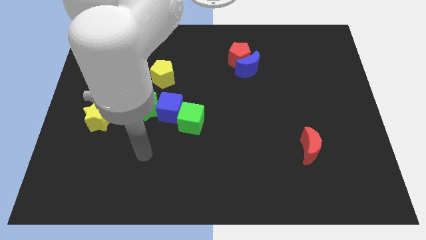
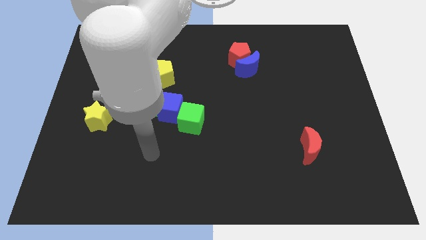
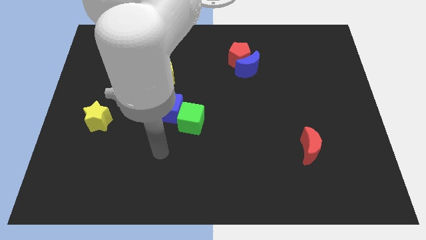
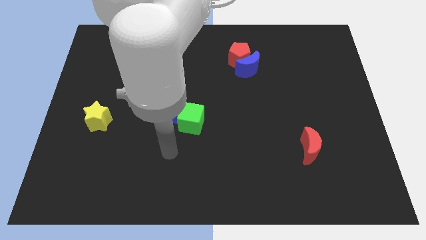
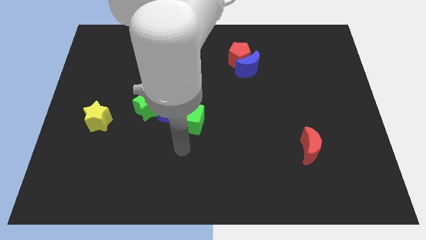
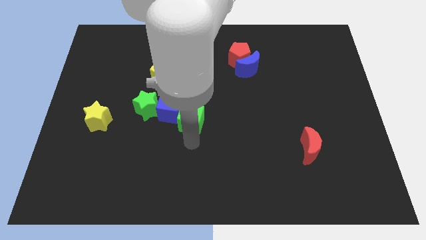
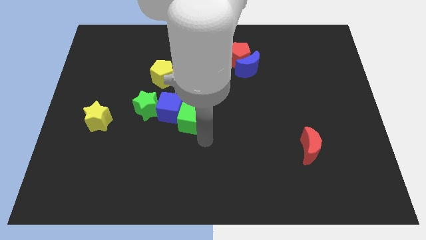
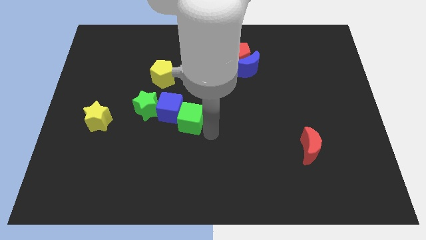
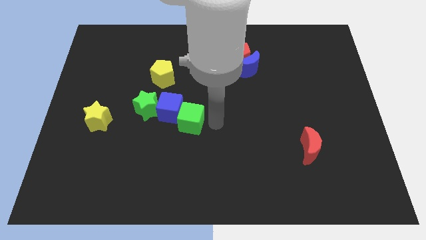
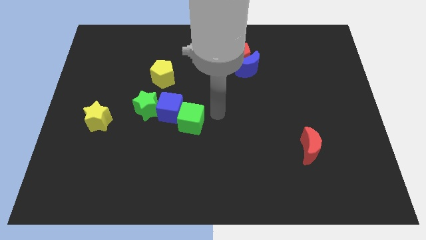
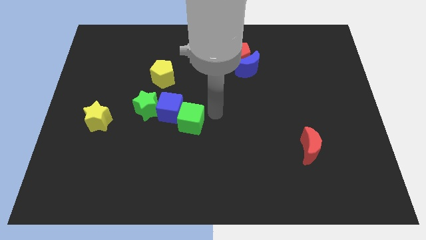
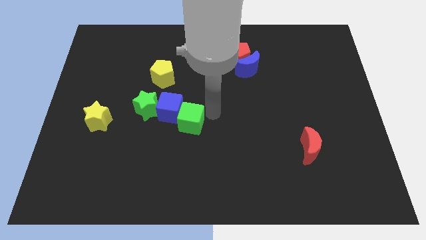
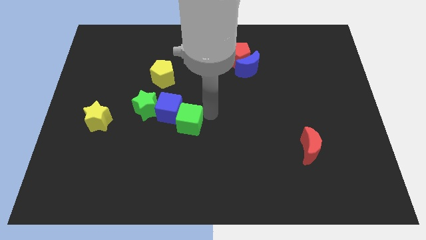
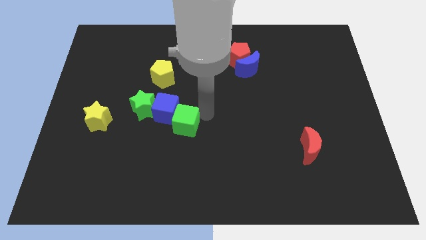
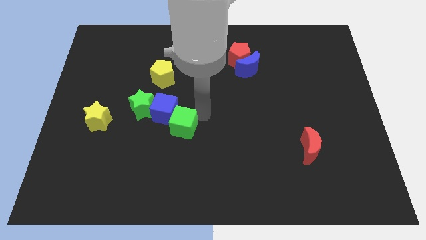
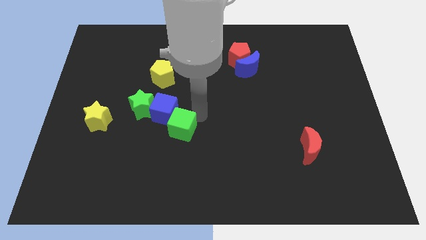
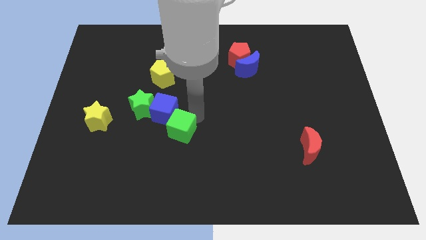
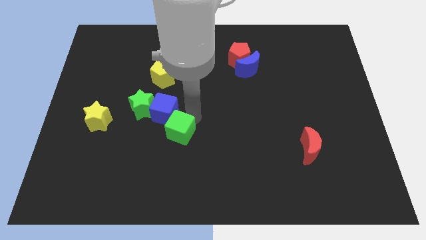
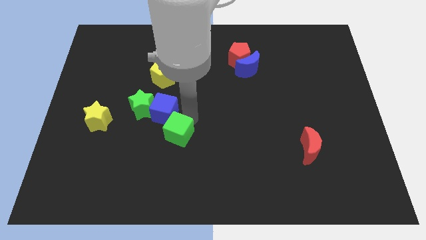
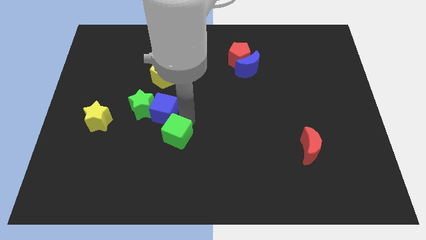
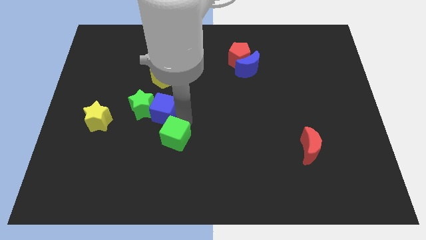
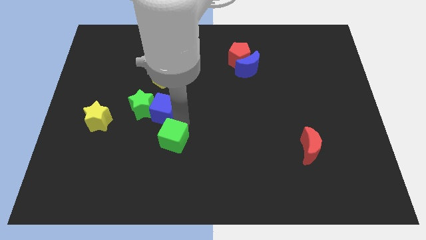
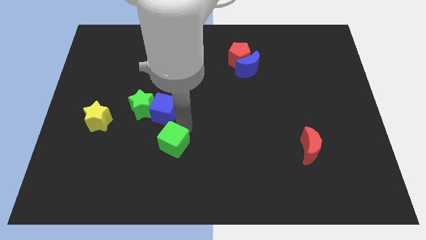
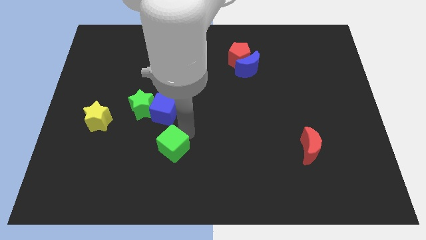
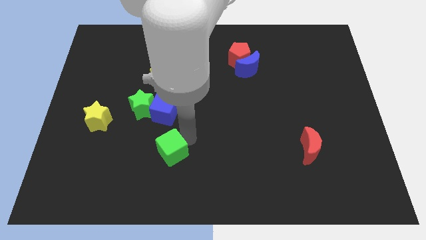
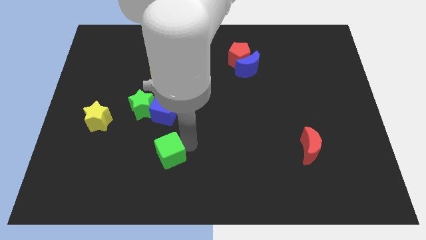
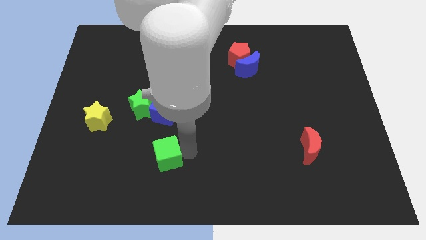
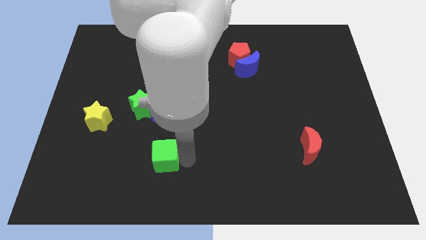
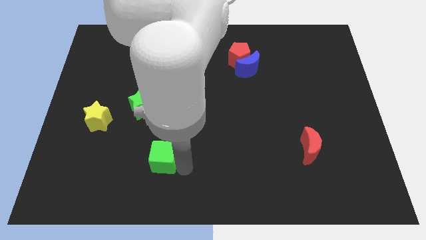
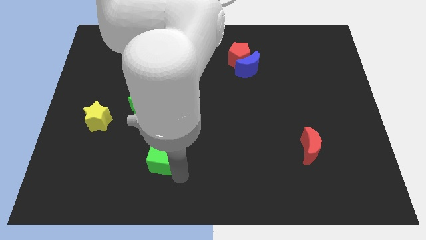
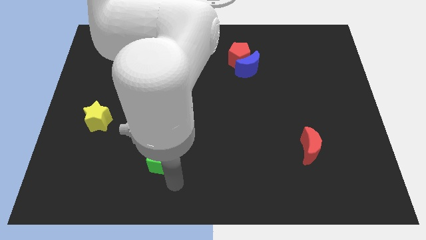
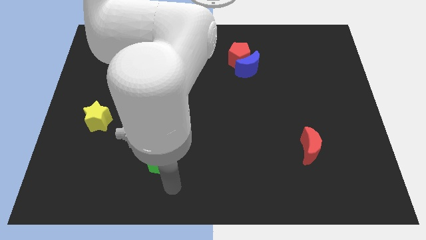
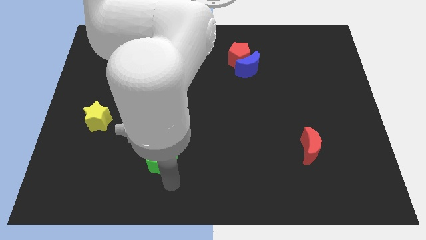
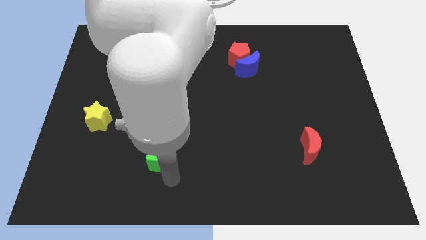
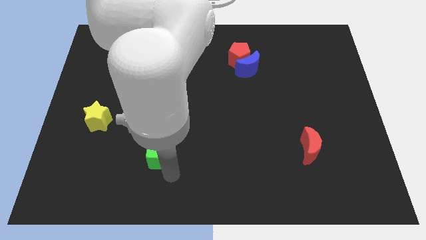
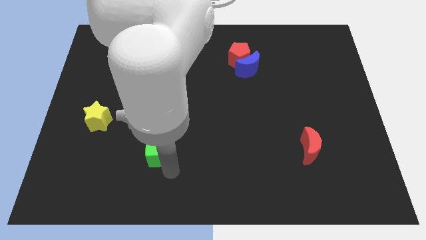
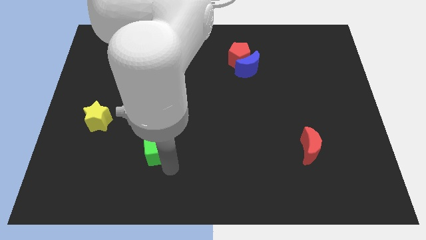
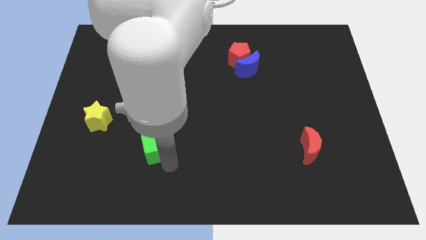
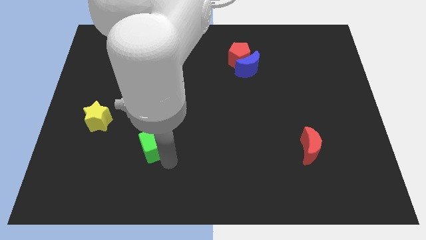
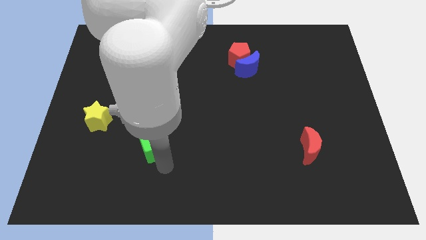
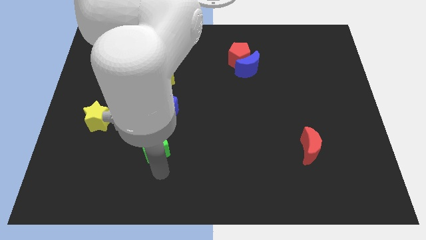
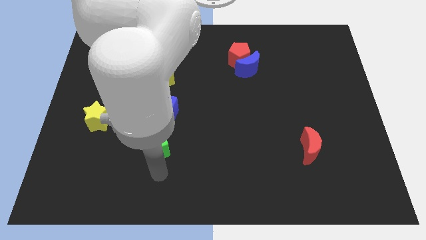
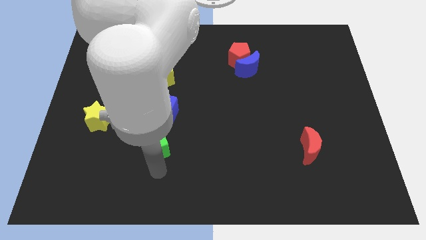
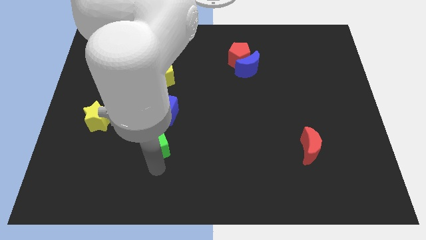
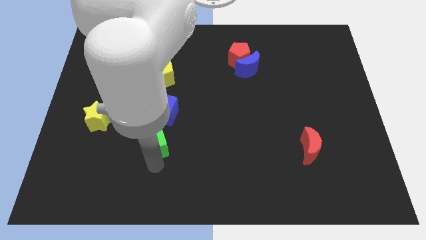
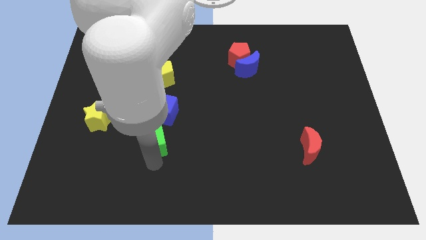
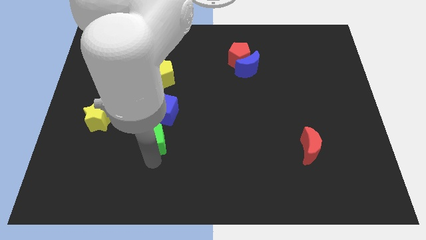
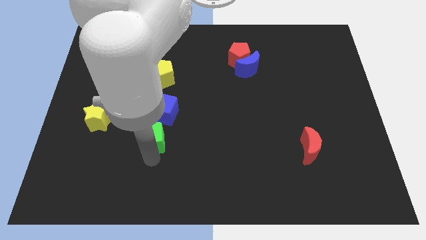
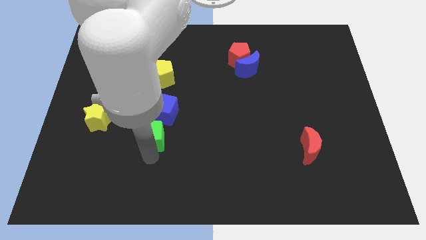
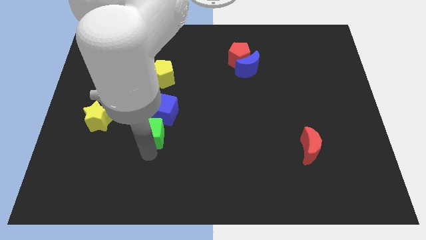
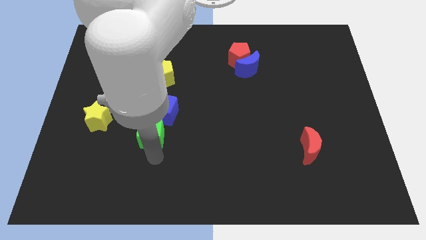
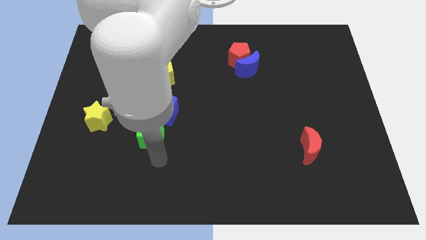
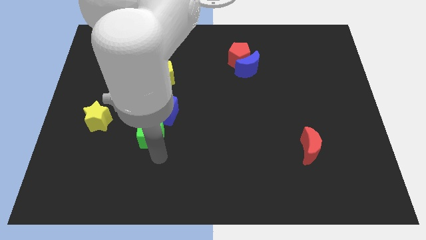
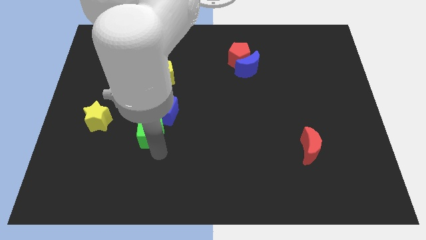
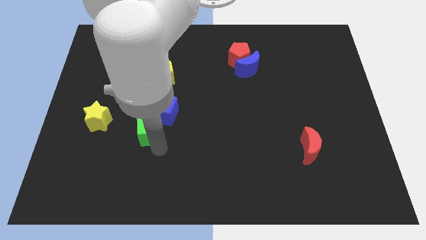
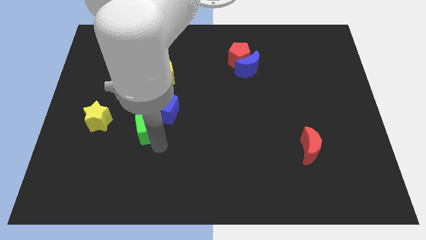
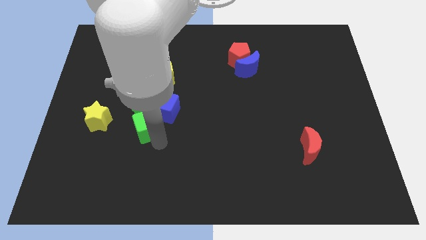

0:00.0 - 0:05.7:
put the green cube close to the green star

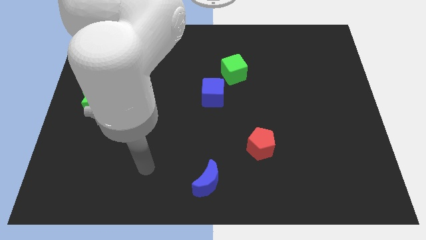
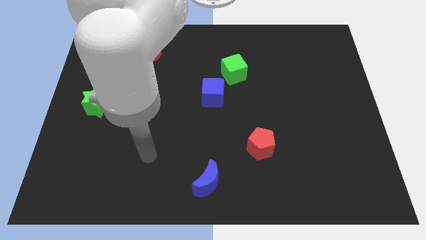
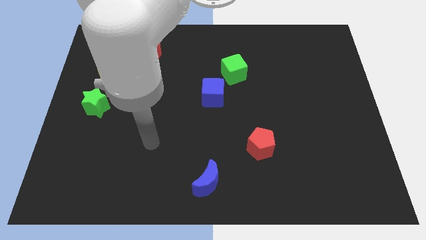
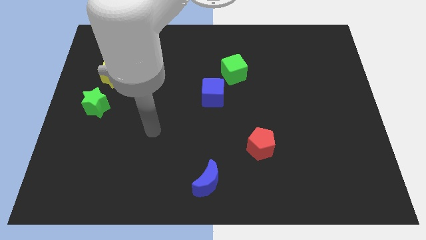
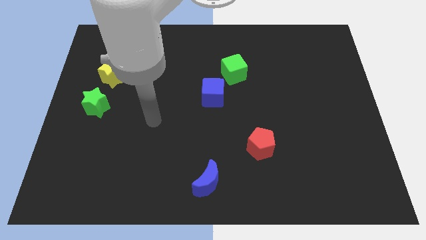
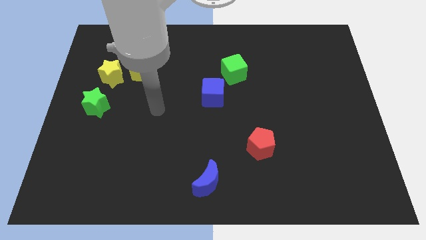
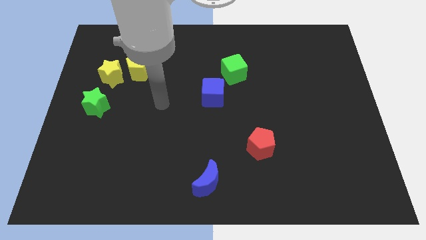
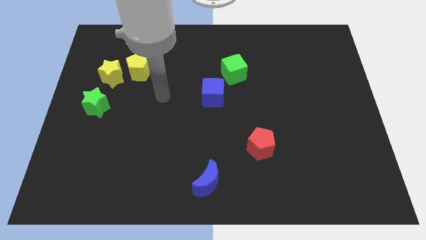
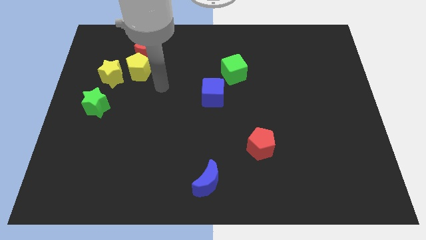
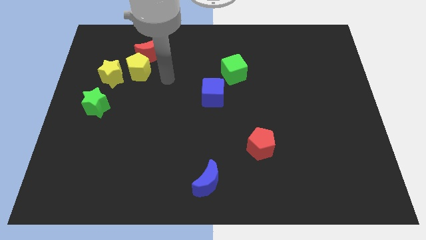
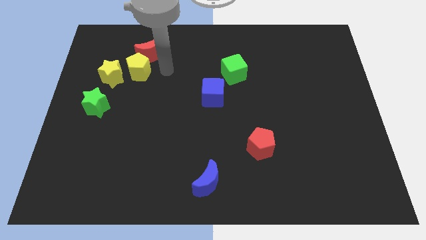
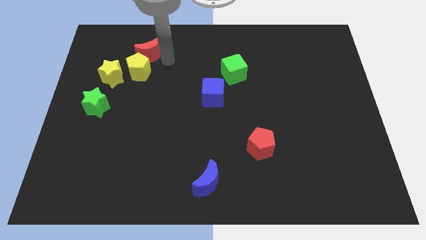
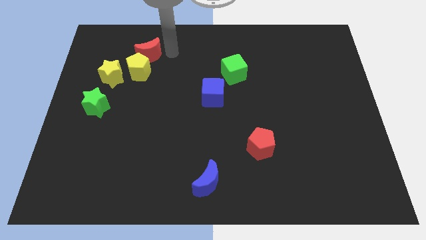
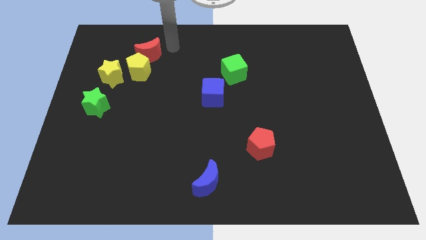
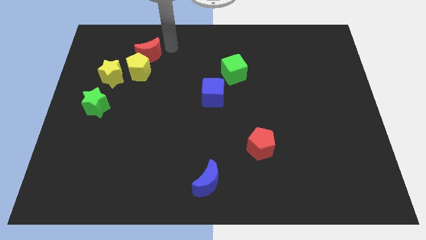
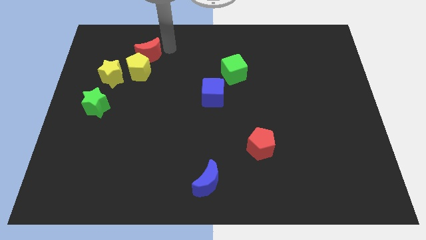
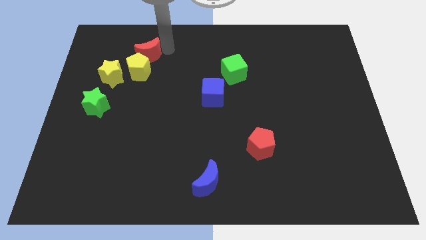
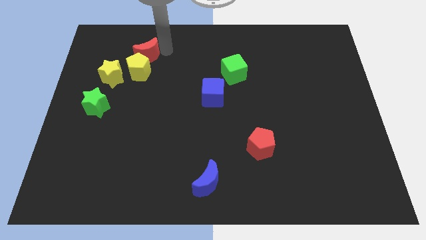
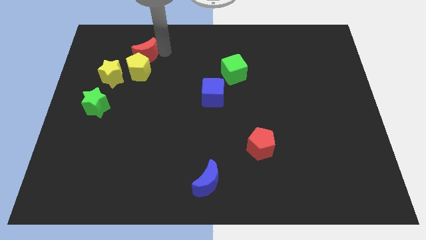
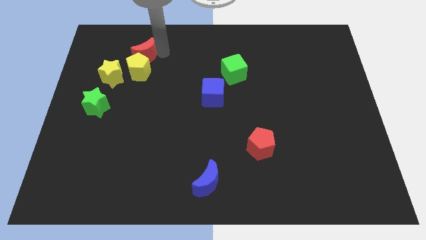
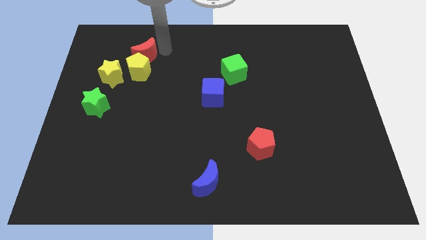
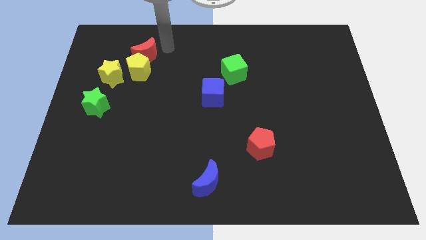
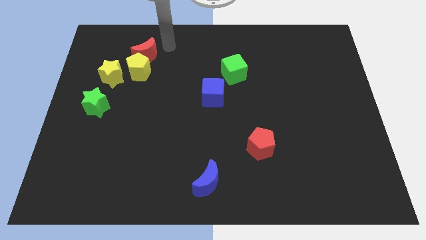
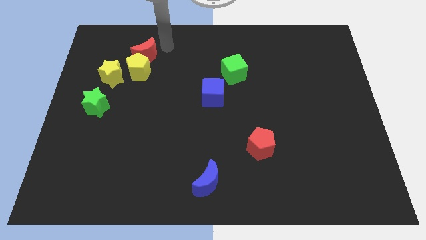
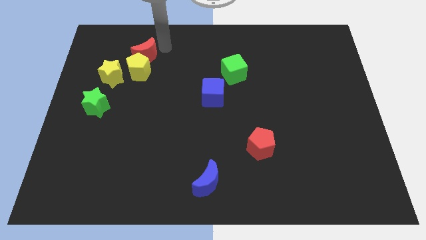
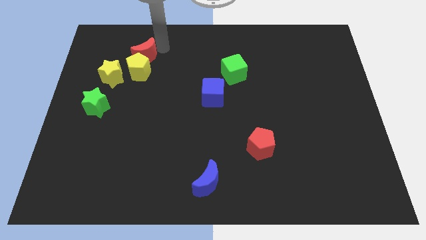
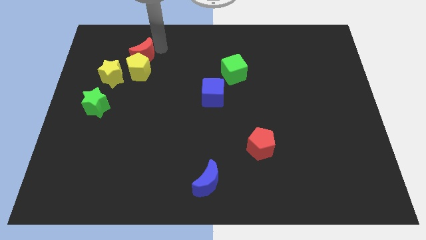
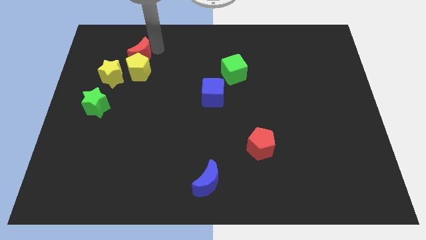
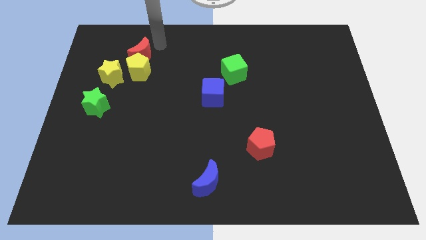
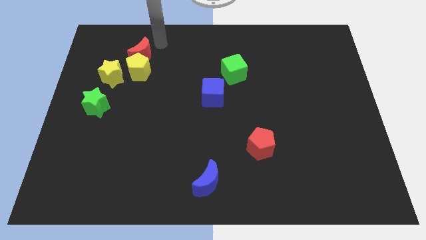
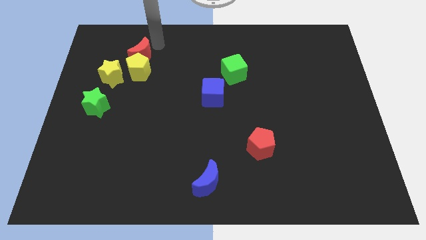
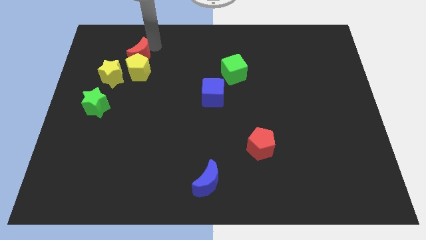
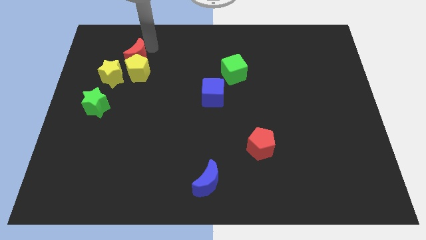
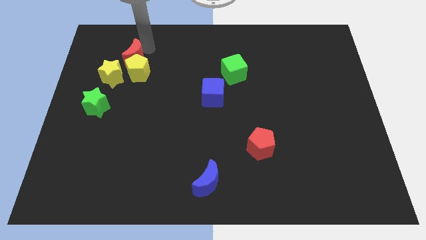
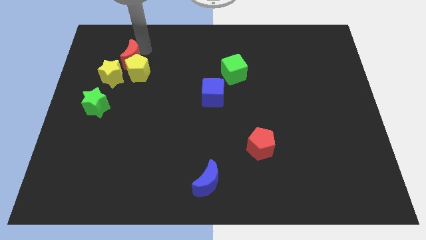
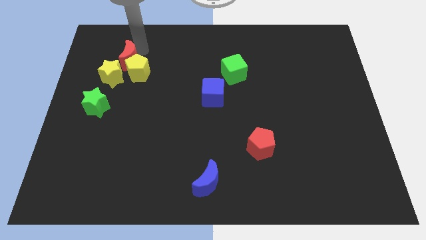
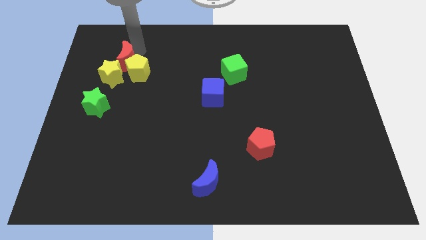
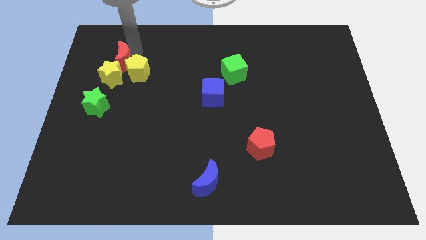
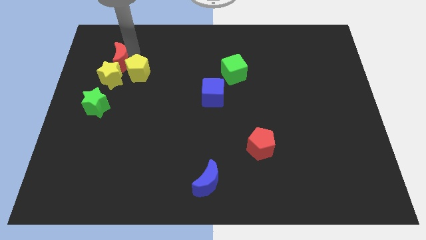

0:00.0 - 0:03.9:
push the red moon next to the yellow star
